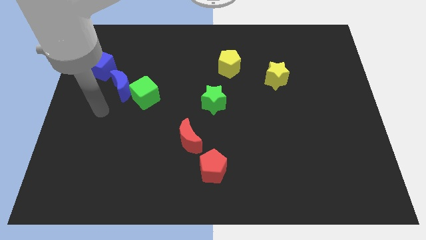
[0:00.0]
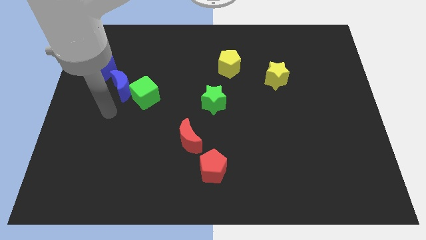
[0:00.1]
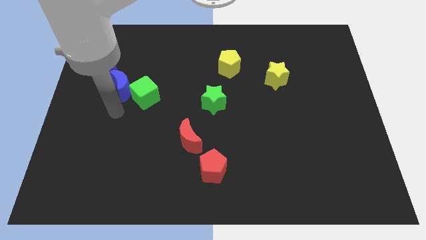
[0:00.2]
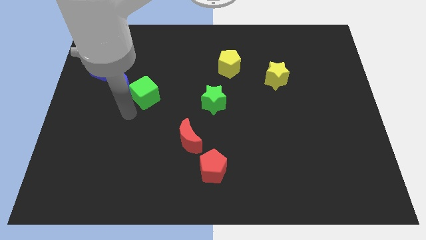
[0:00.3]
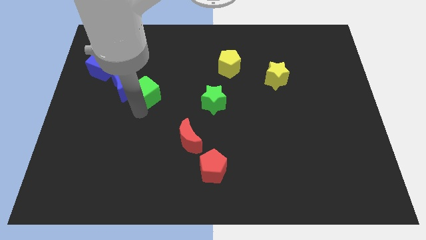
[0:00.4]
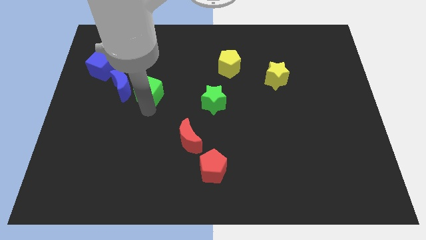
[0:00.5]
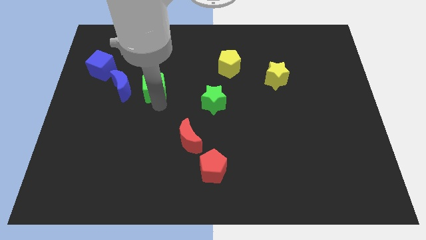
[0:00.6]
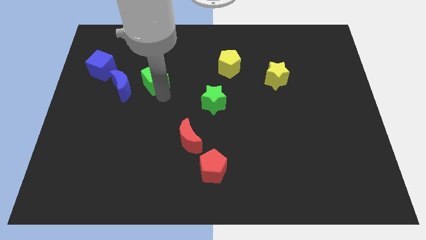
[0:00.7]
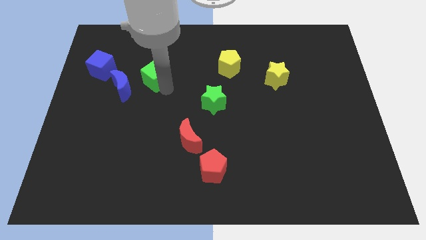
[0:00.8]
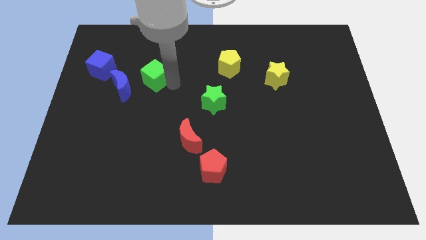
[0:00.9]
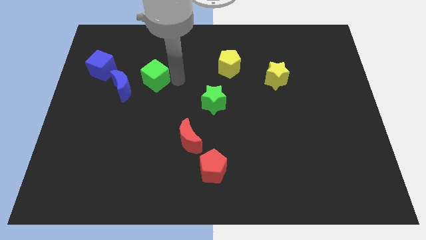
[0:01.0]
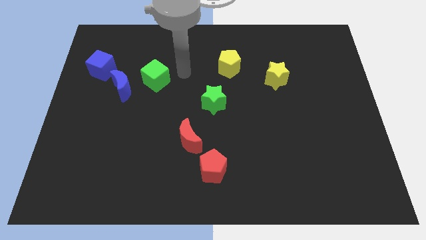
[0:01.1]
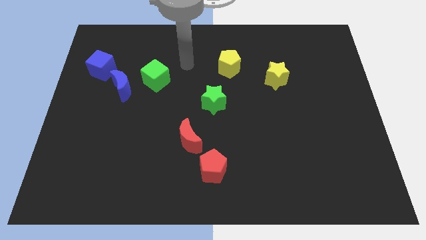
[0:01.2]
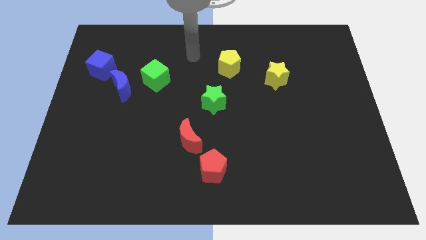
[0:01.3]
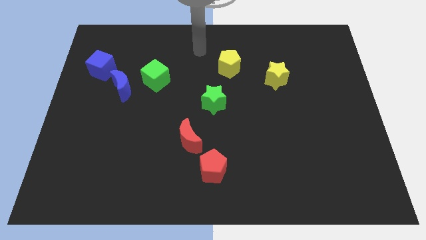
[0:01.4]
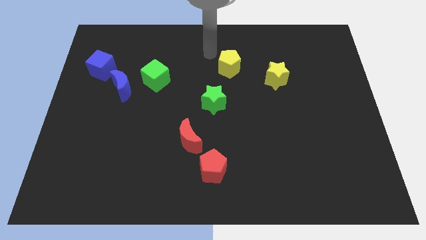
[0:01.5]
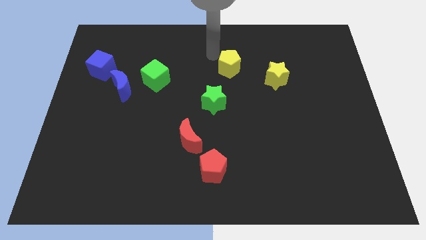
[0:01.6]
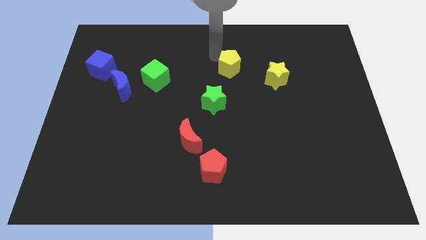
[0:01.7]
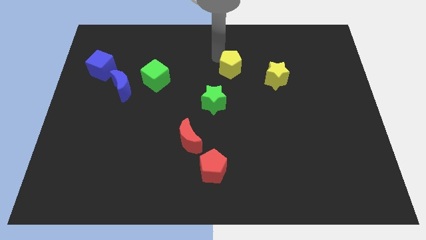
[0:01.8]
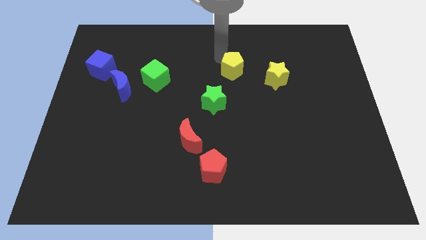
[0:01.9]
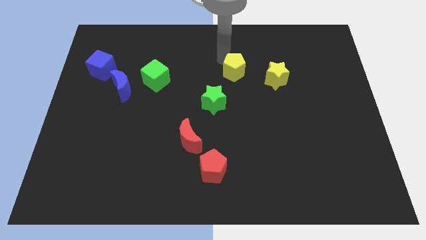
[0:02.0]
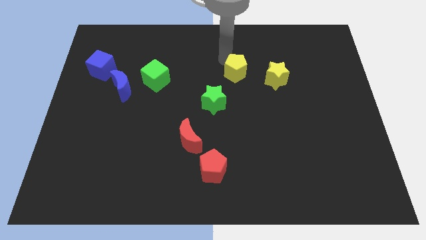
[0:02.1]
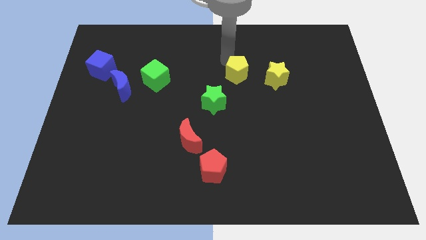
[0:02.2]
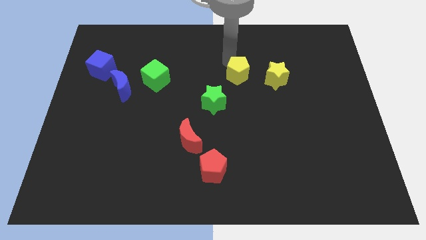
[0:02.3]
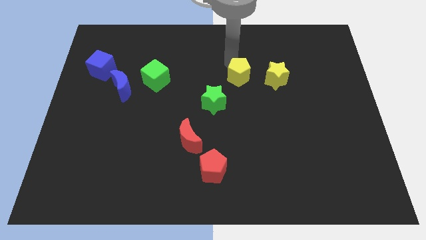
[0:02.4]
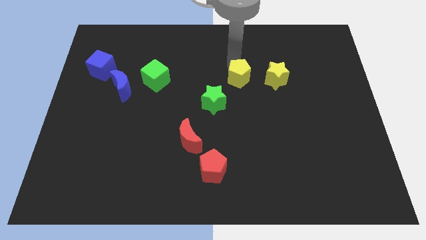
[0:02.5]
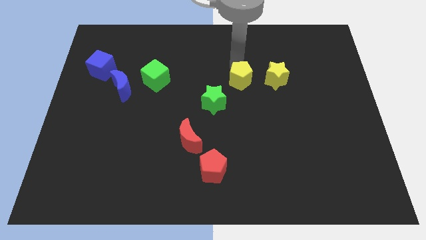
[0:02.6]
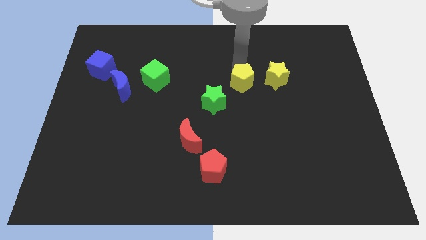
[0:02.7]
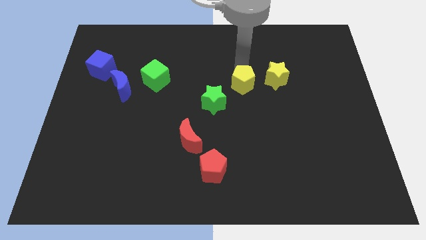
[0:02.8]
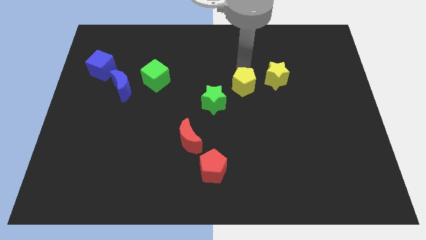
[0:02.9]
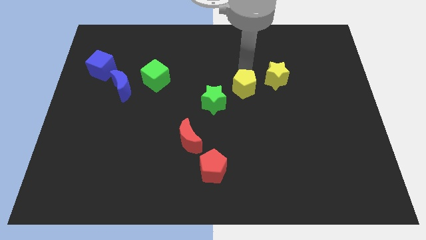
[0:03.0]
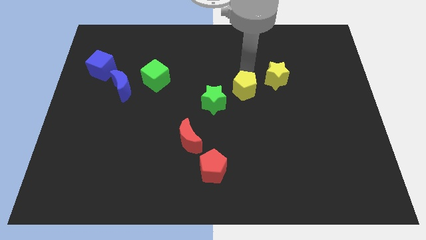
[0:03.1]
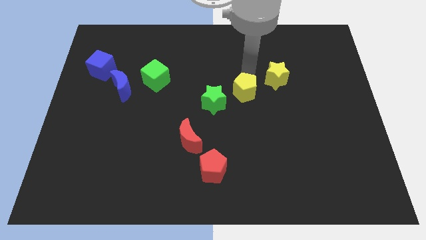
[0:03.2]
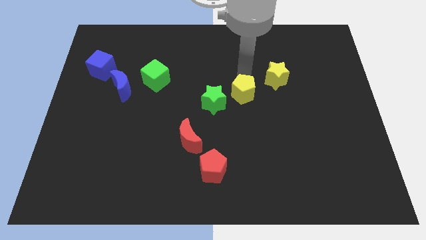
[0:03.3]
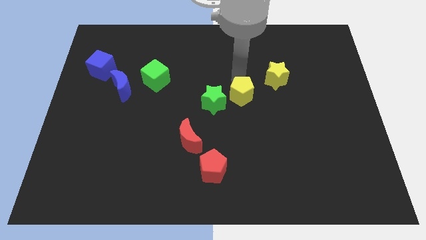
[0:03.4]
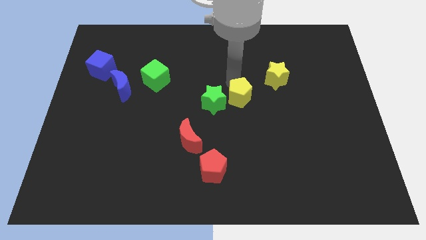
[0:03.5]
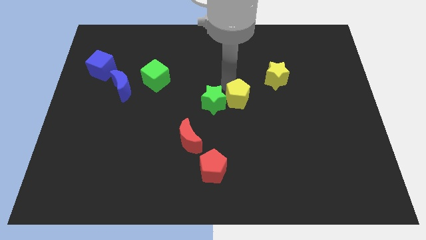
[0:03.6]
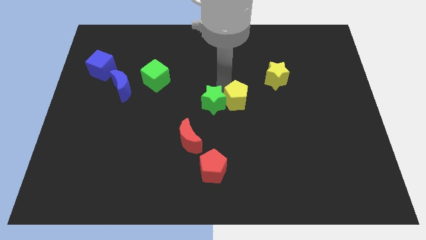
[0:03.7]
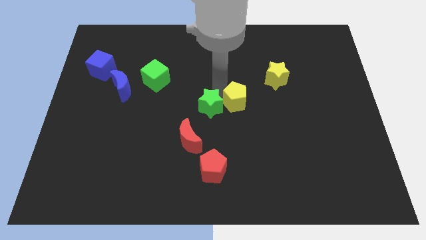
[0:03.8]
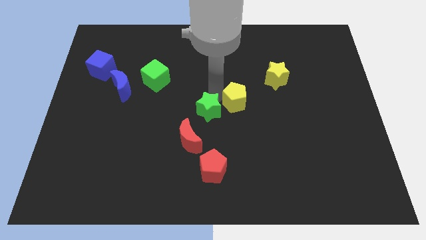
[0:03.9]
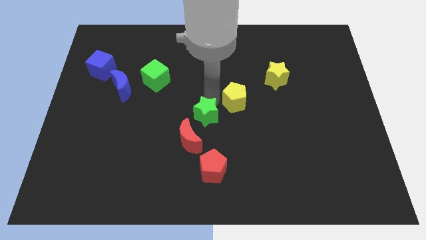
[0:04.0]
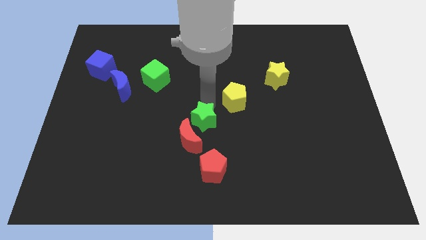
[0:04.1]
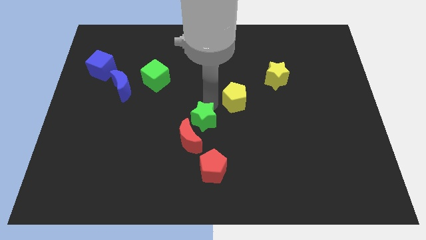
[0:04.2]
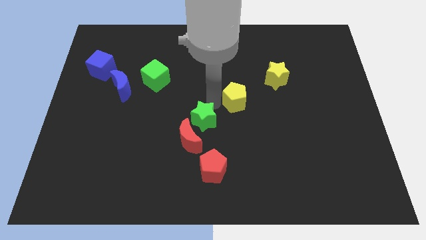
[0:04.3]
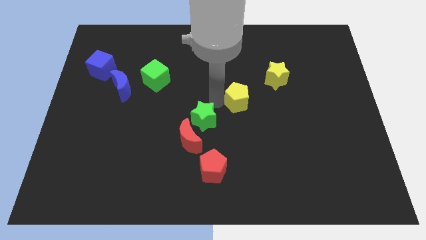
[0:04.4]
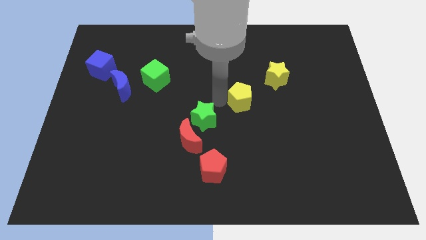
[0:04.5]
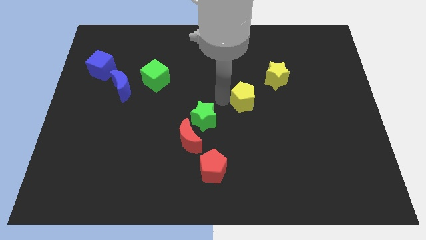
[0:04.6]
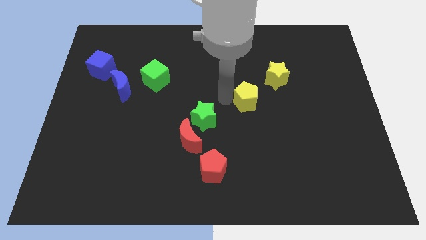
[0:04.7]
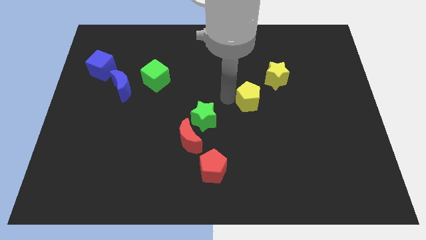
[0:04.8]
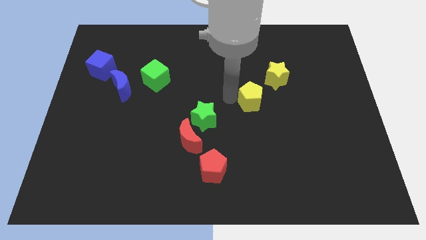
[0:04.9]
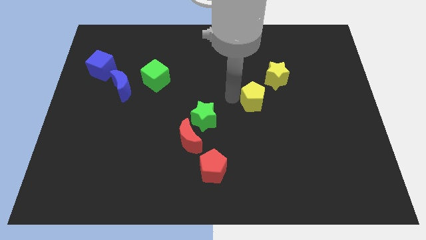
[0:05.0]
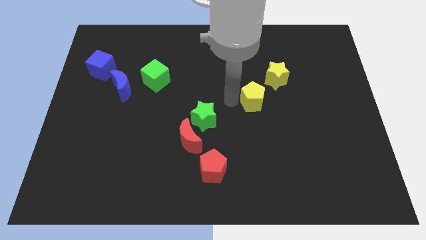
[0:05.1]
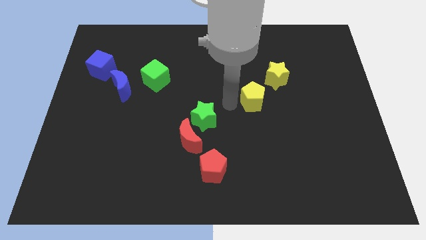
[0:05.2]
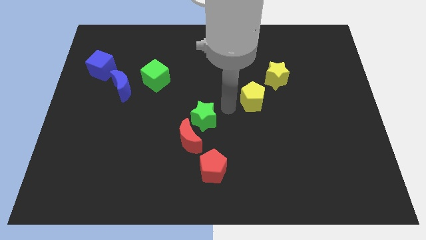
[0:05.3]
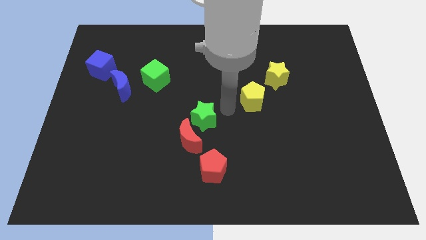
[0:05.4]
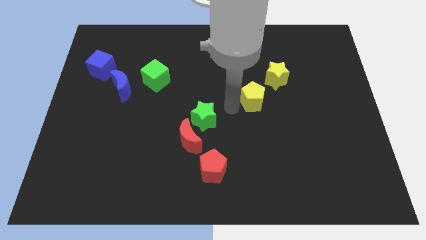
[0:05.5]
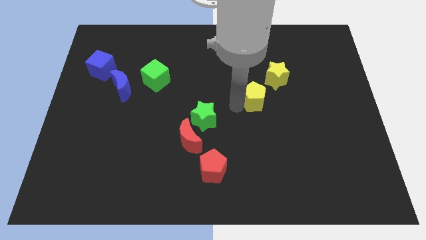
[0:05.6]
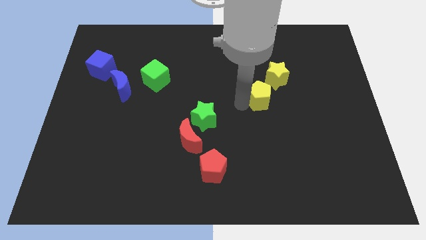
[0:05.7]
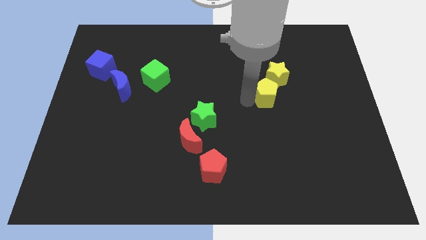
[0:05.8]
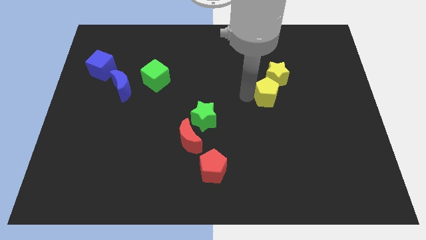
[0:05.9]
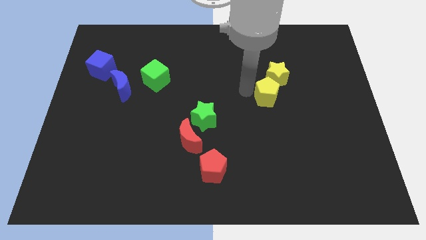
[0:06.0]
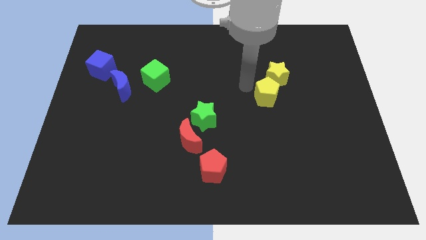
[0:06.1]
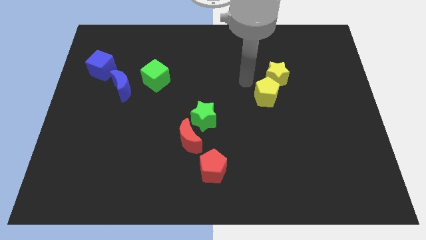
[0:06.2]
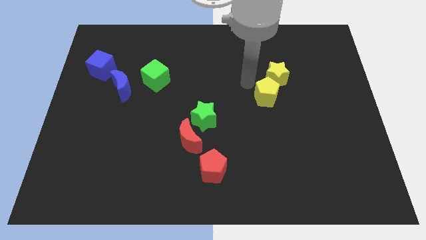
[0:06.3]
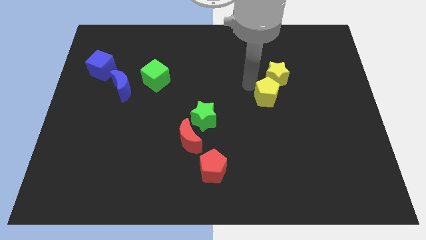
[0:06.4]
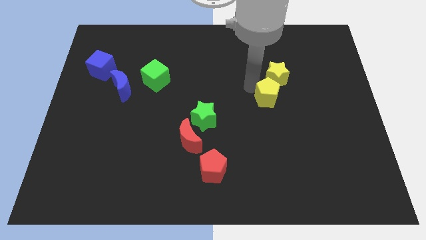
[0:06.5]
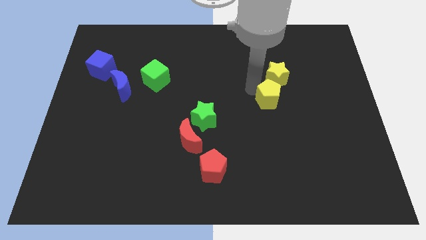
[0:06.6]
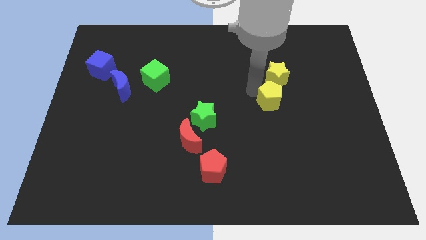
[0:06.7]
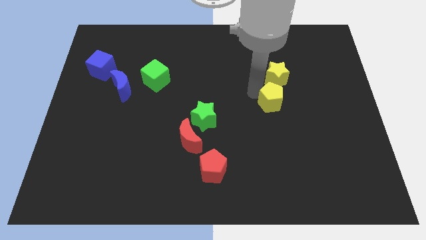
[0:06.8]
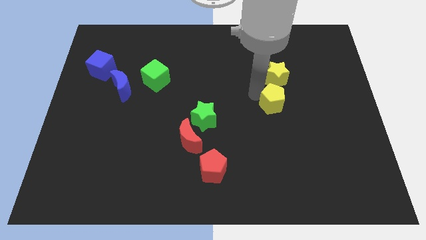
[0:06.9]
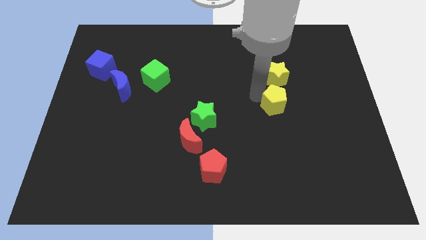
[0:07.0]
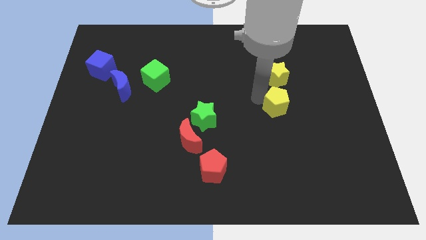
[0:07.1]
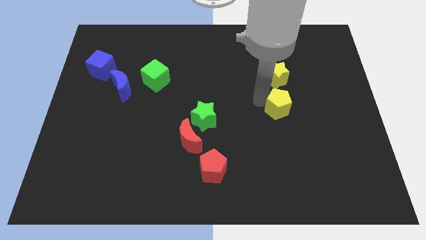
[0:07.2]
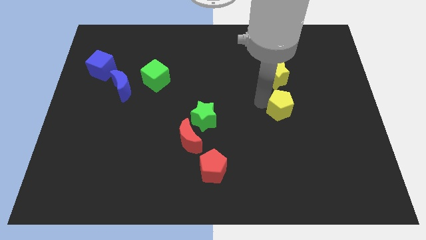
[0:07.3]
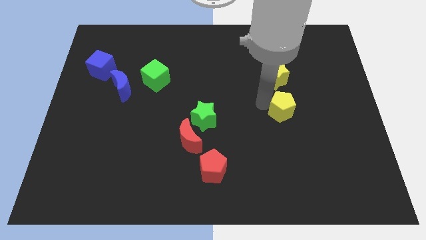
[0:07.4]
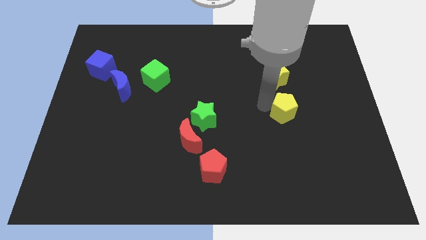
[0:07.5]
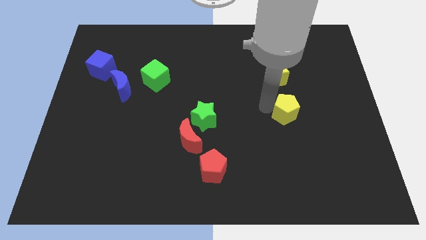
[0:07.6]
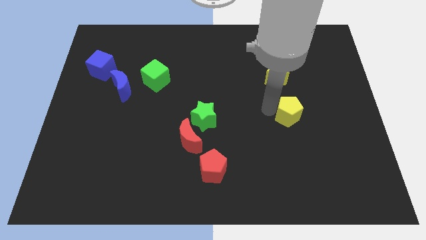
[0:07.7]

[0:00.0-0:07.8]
slide the yellow pentagon down and to the right

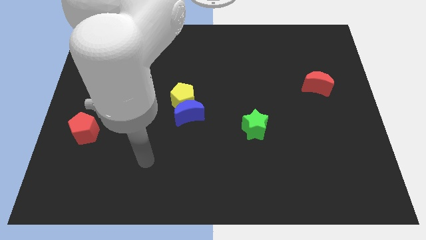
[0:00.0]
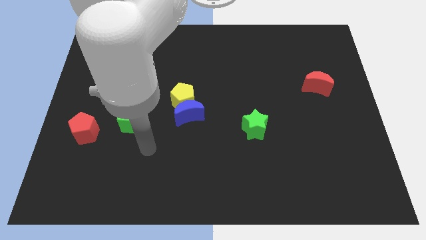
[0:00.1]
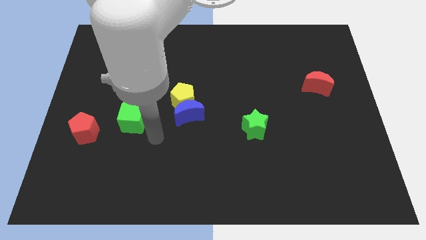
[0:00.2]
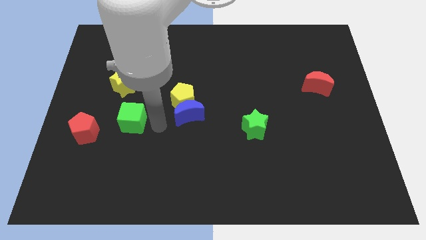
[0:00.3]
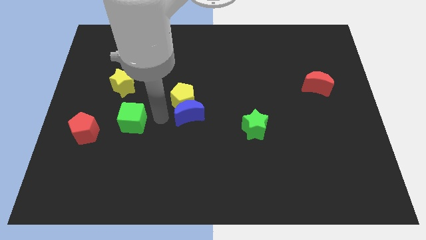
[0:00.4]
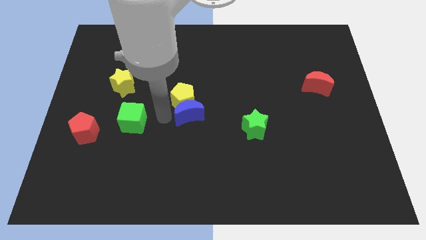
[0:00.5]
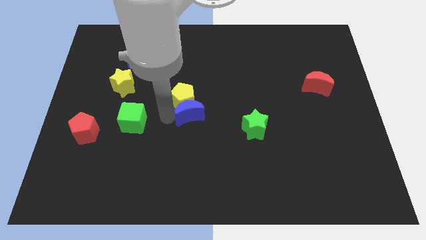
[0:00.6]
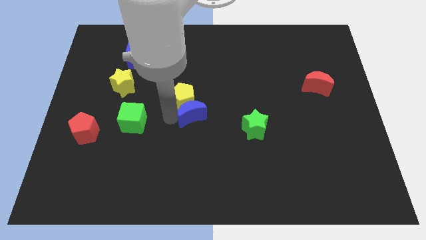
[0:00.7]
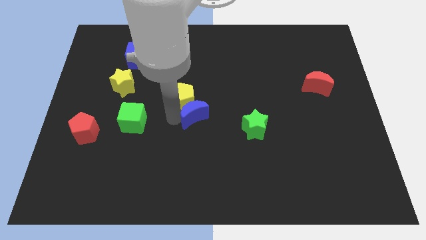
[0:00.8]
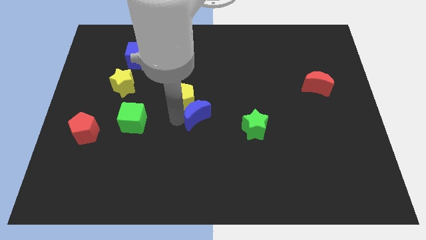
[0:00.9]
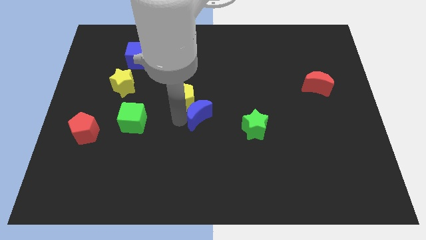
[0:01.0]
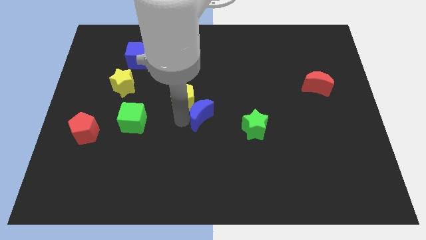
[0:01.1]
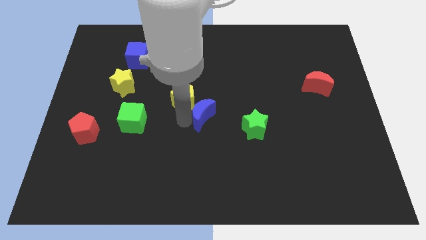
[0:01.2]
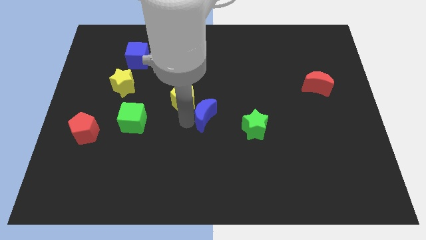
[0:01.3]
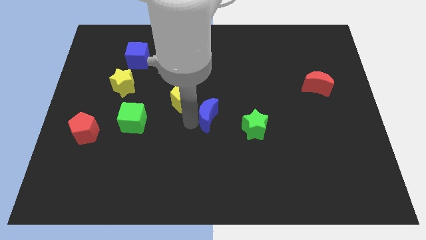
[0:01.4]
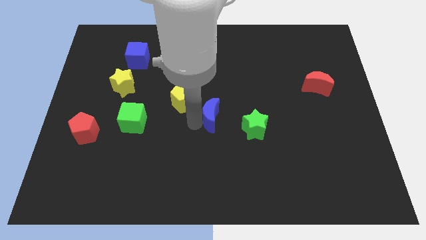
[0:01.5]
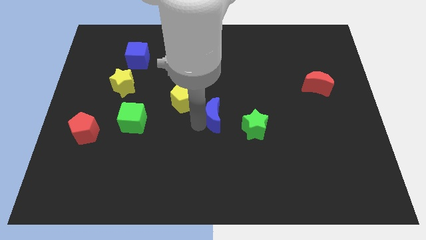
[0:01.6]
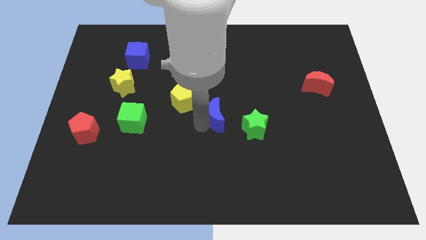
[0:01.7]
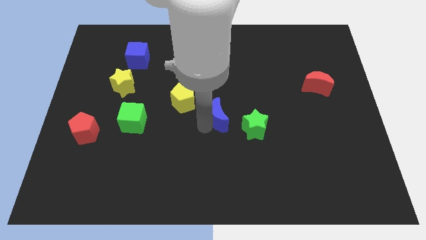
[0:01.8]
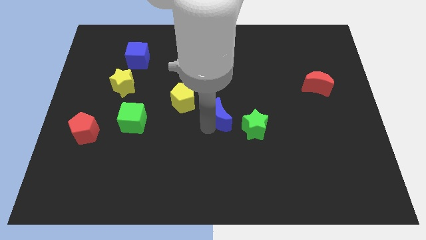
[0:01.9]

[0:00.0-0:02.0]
slide the blue moon a little right
